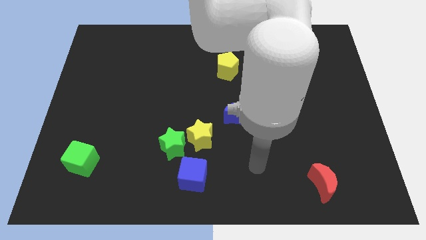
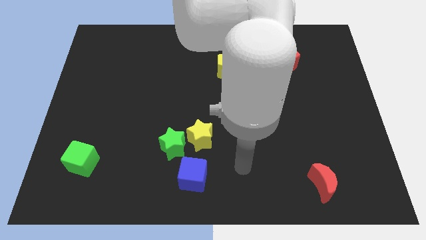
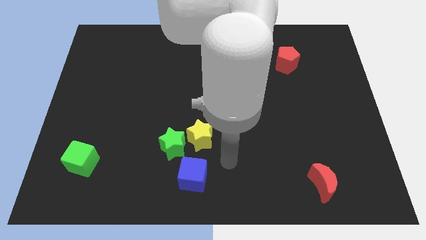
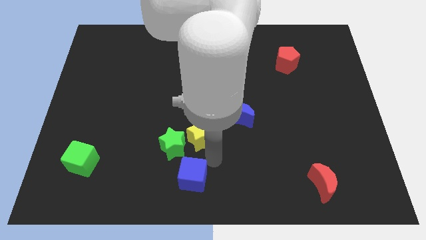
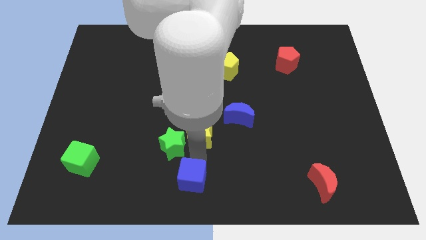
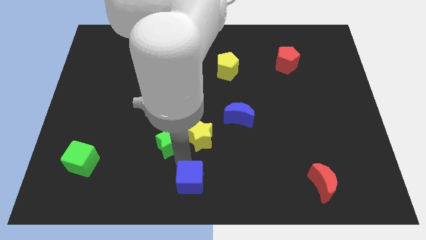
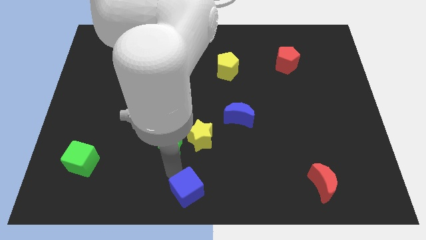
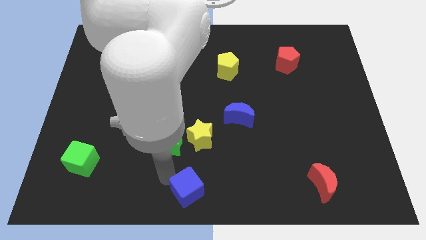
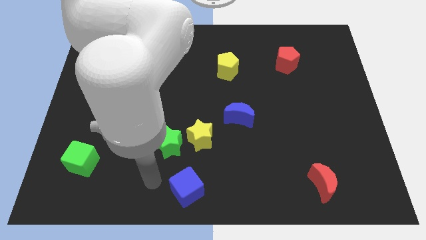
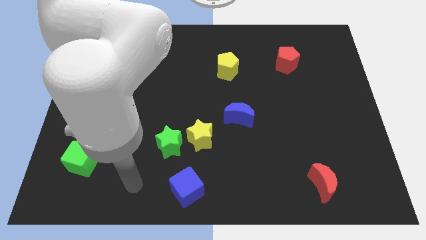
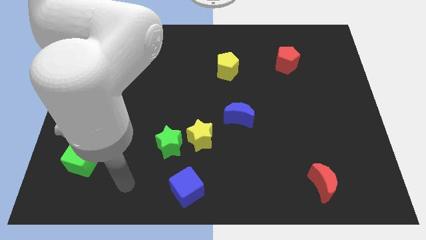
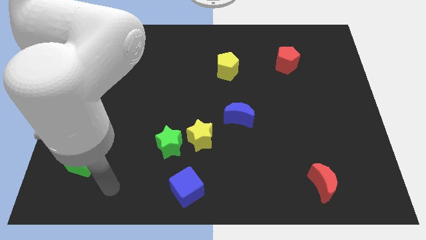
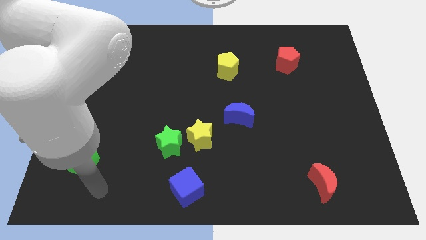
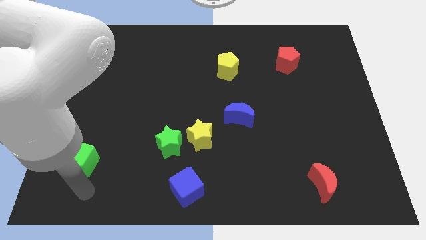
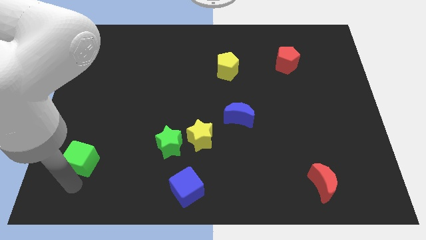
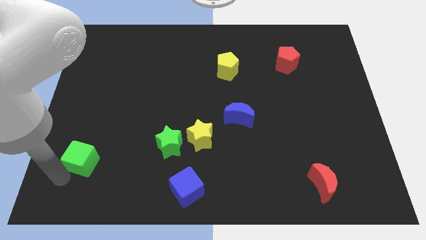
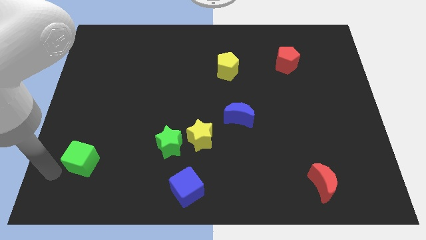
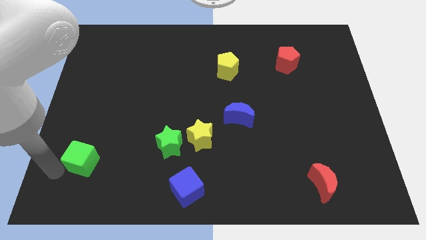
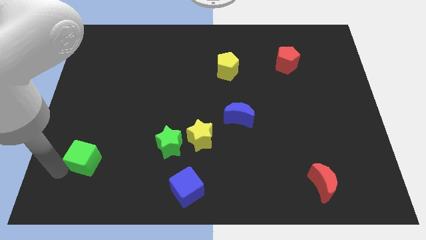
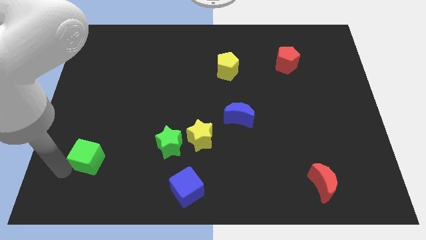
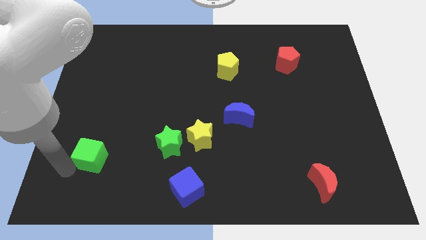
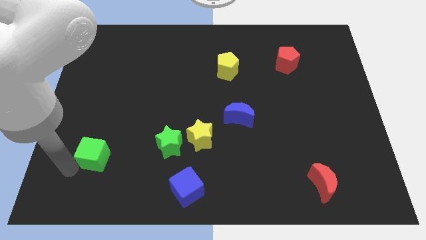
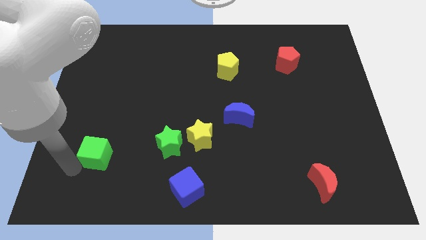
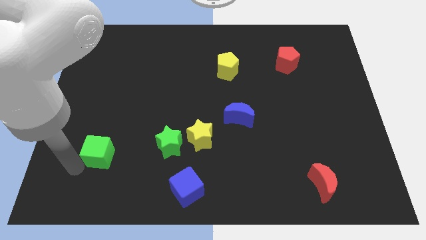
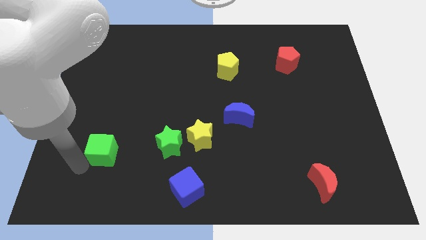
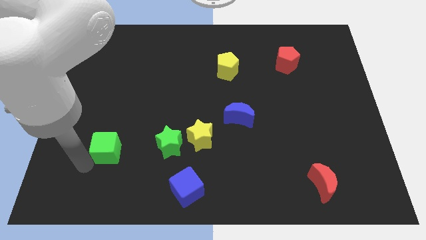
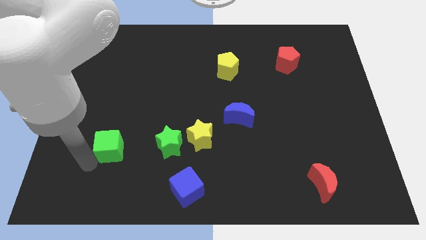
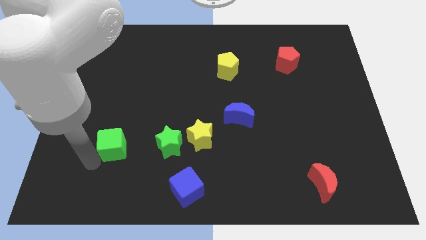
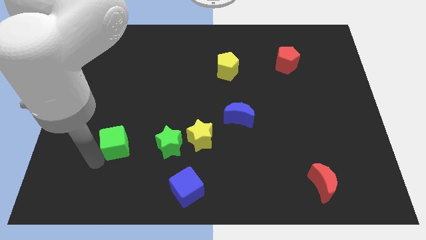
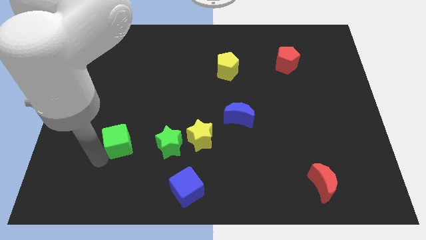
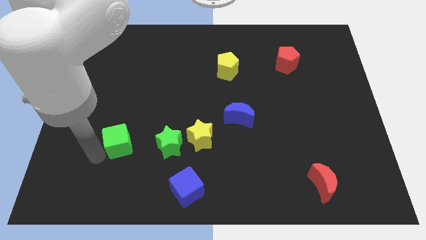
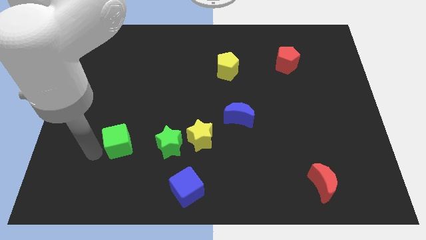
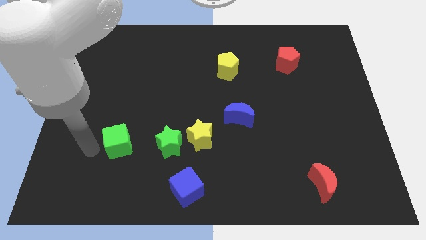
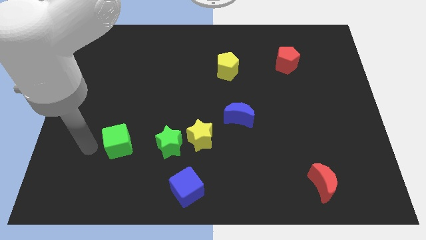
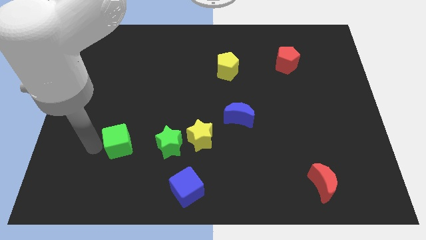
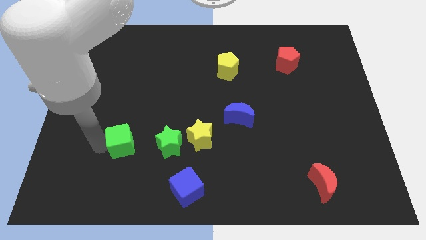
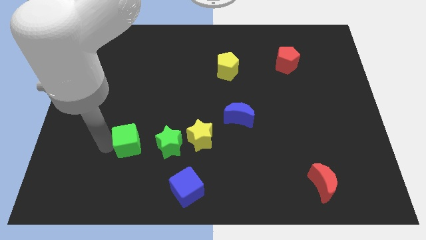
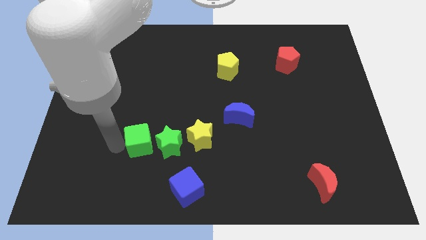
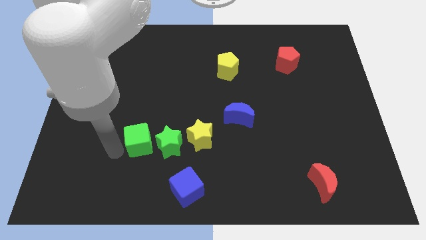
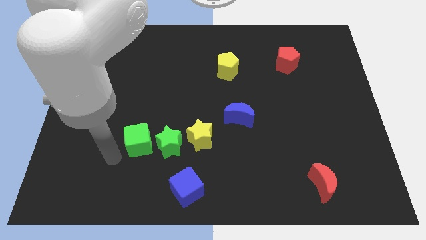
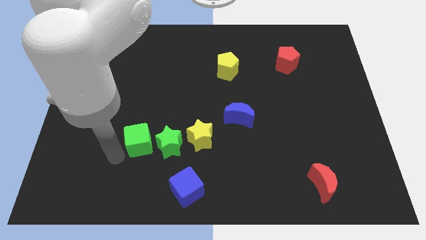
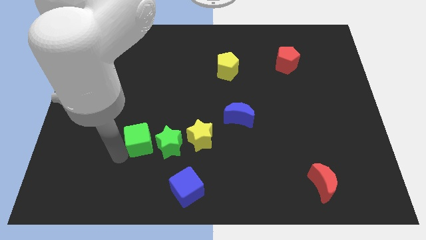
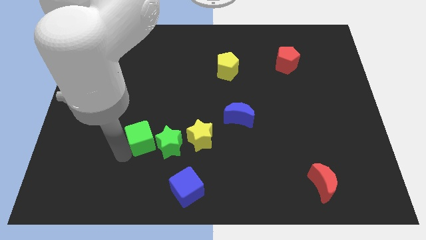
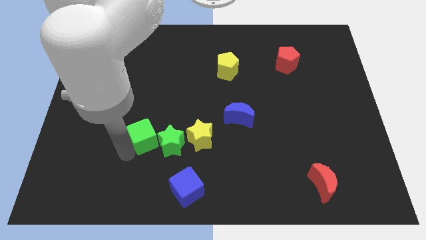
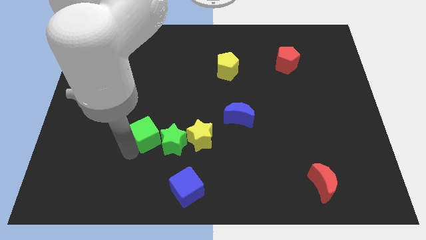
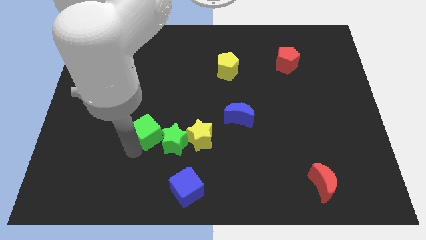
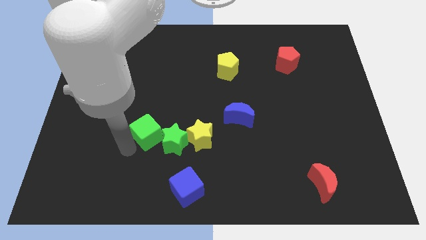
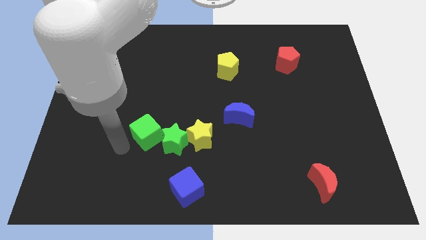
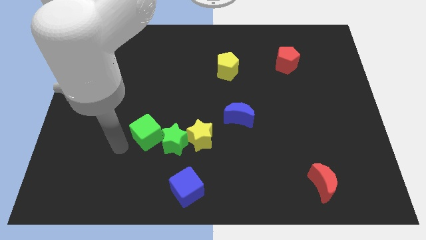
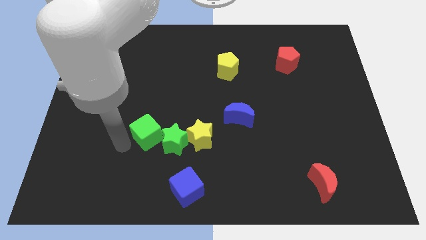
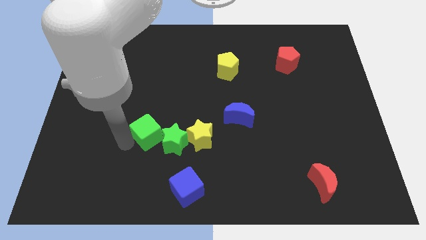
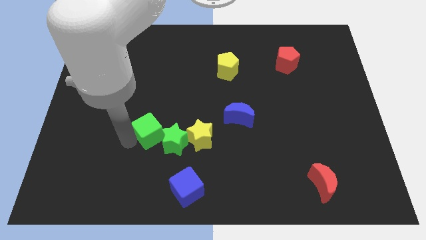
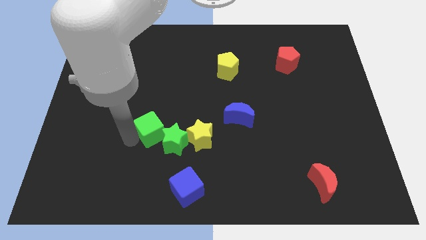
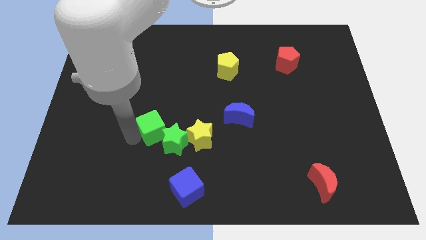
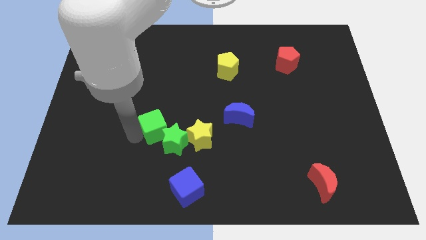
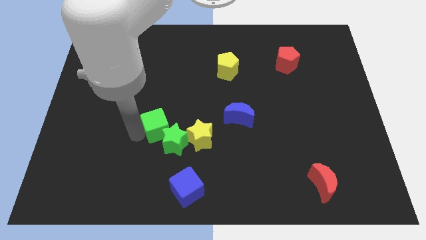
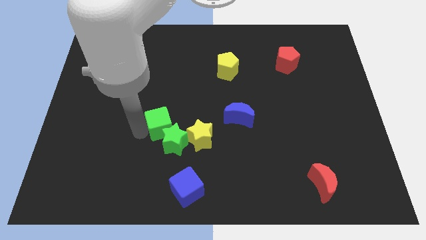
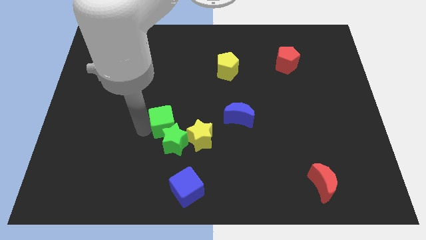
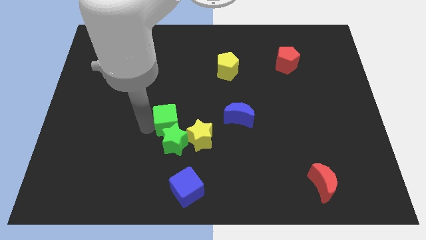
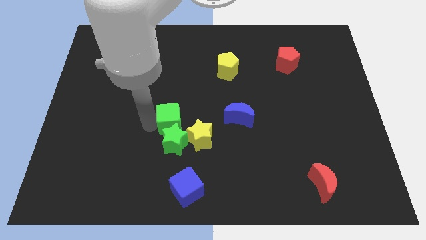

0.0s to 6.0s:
move the green cube to the top right of the green star
